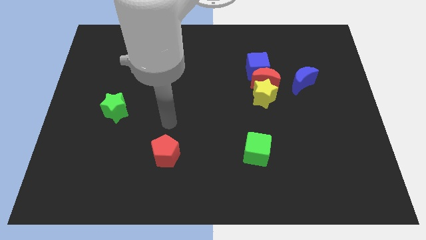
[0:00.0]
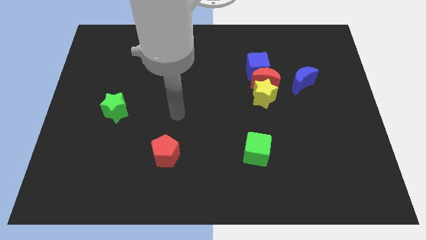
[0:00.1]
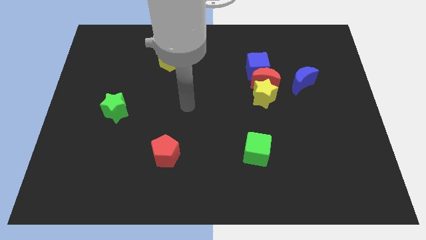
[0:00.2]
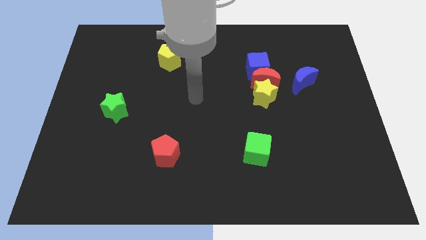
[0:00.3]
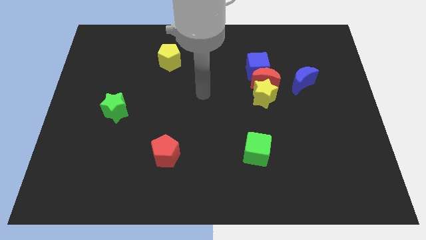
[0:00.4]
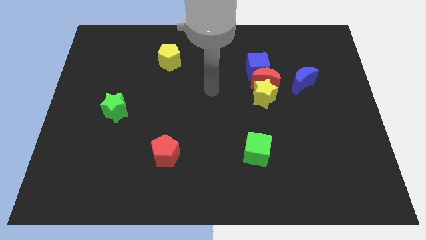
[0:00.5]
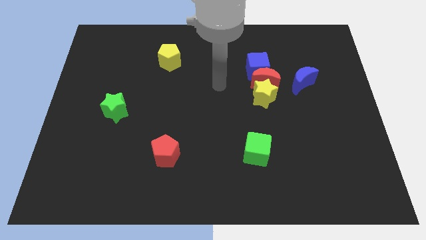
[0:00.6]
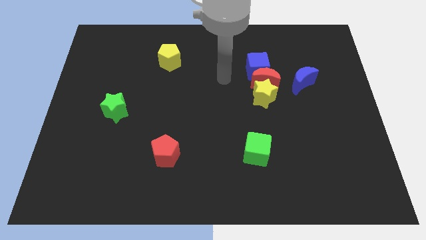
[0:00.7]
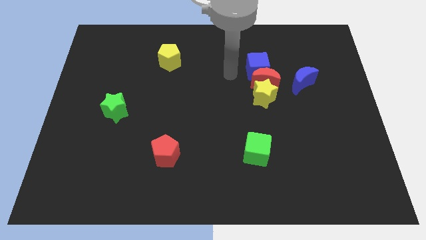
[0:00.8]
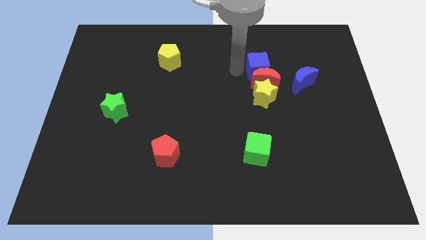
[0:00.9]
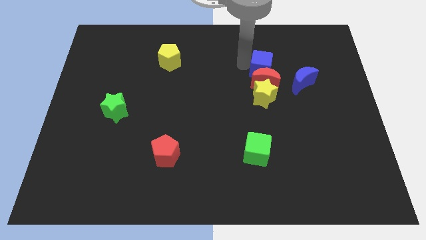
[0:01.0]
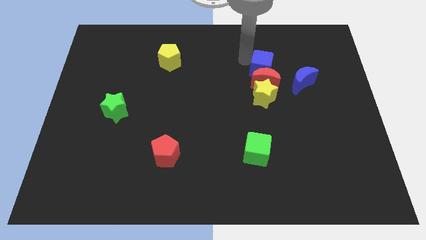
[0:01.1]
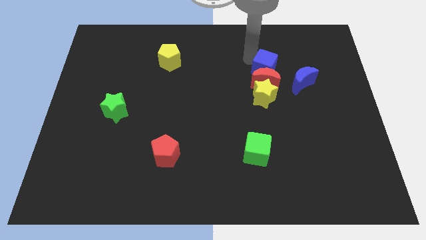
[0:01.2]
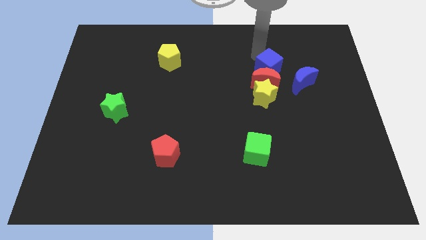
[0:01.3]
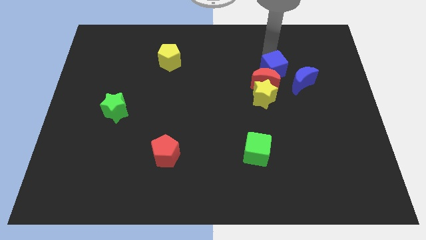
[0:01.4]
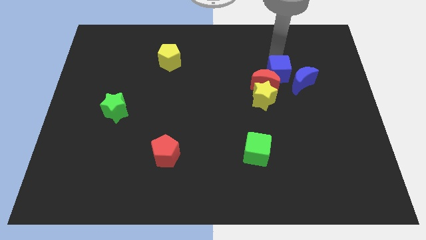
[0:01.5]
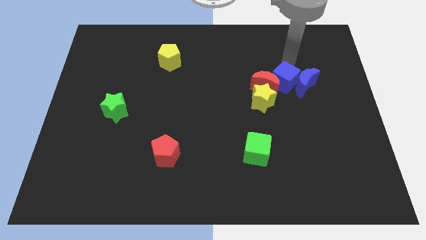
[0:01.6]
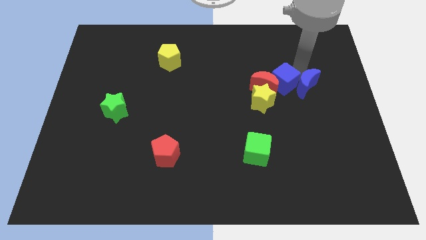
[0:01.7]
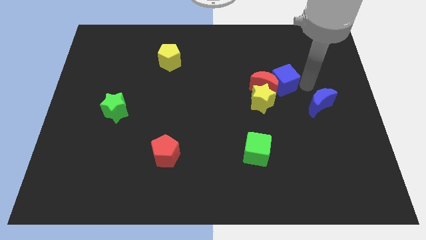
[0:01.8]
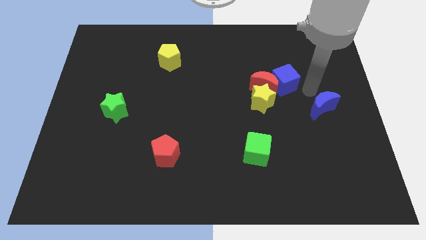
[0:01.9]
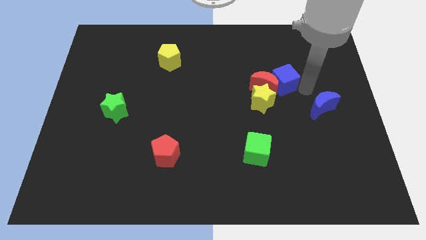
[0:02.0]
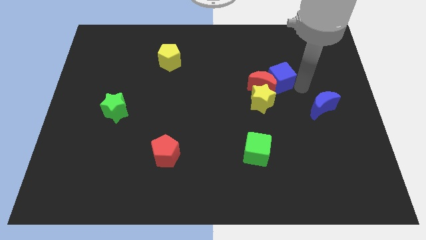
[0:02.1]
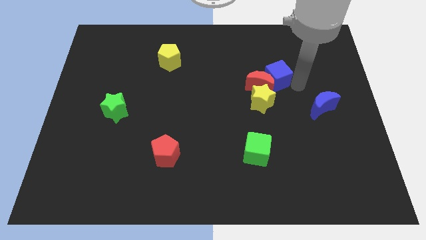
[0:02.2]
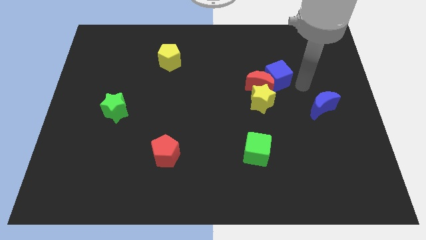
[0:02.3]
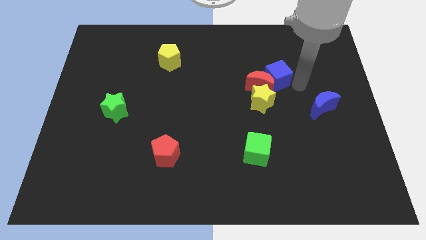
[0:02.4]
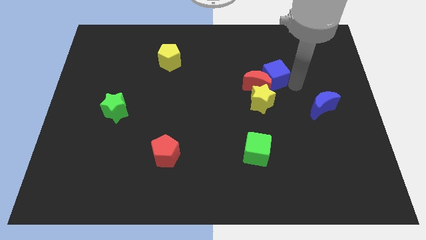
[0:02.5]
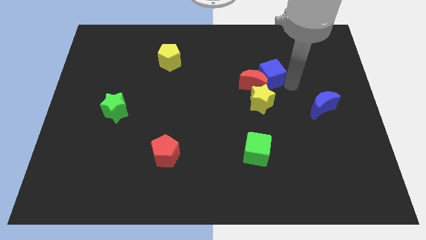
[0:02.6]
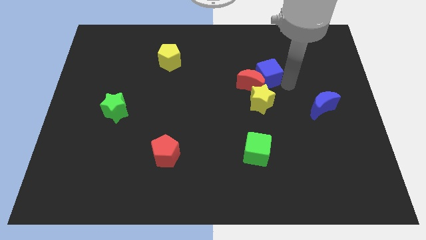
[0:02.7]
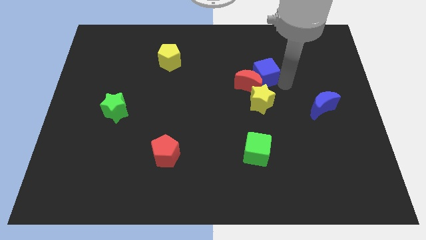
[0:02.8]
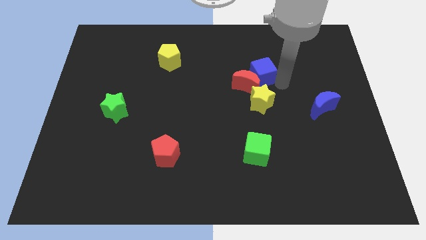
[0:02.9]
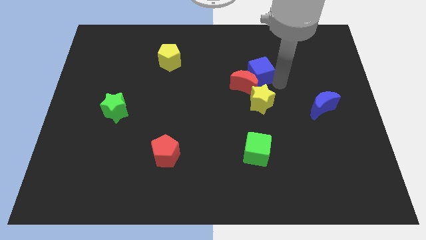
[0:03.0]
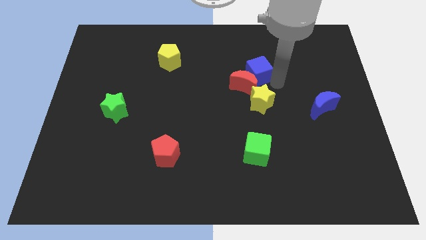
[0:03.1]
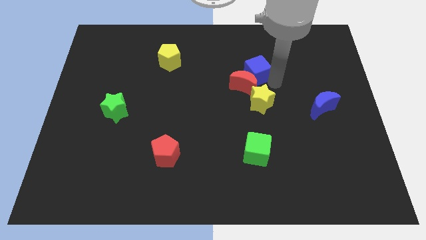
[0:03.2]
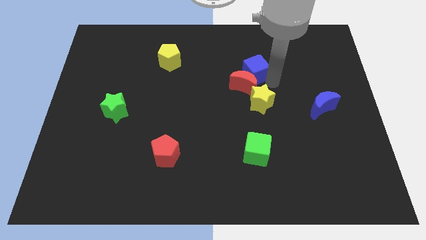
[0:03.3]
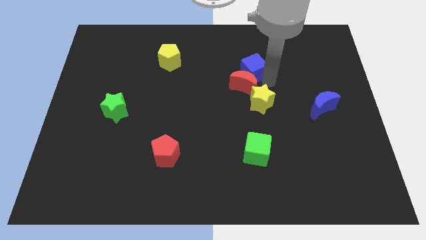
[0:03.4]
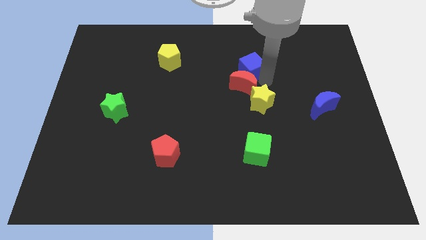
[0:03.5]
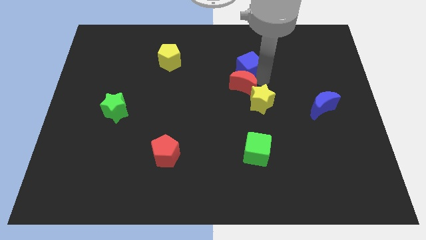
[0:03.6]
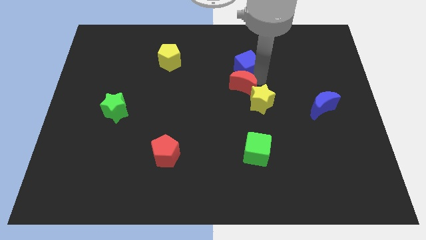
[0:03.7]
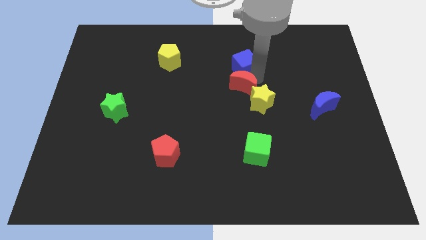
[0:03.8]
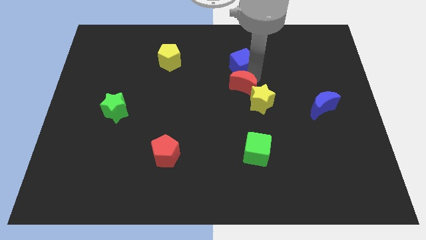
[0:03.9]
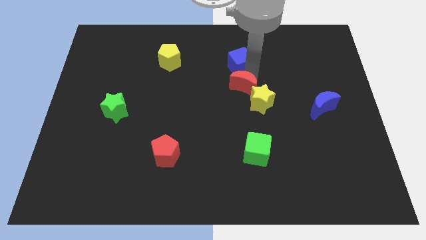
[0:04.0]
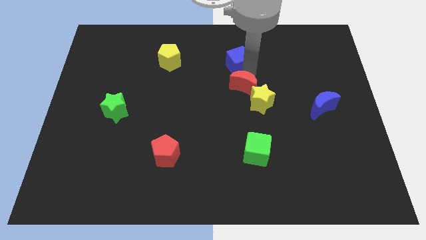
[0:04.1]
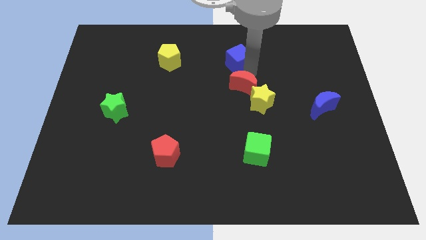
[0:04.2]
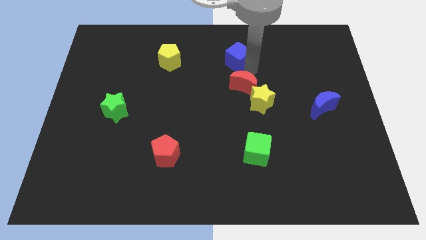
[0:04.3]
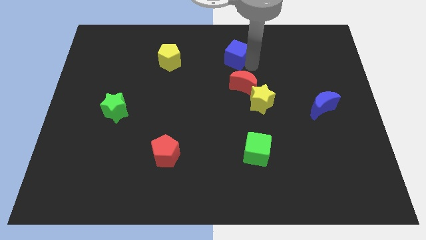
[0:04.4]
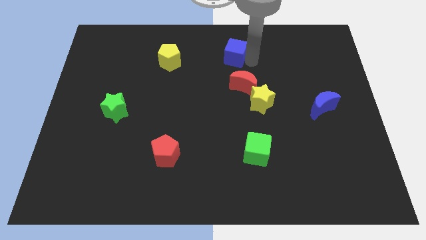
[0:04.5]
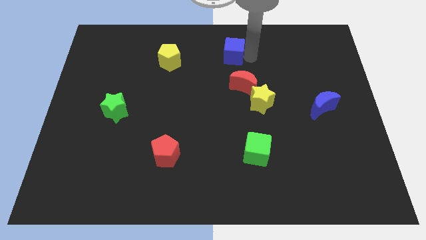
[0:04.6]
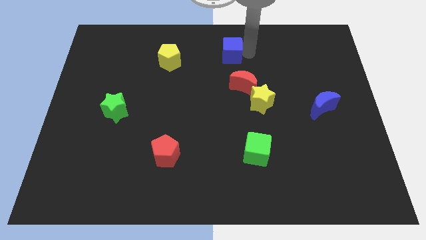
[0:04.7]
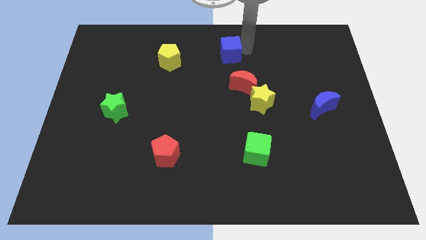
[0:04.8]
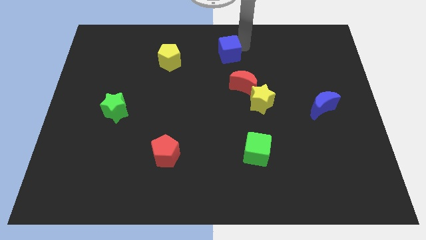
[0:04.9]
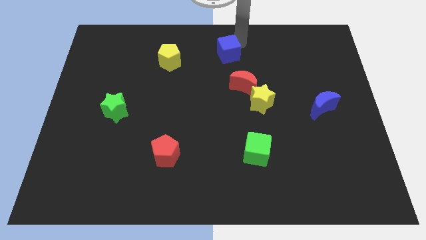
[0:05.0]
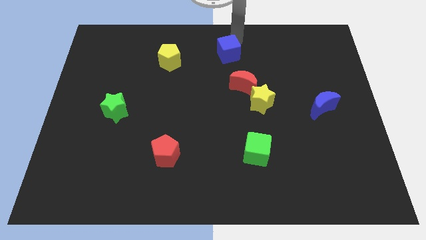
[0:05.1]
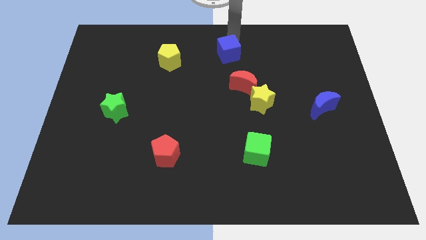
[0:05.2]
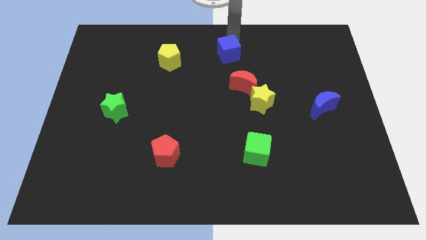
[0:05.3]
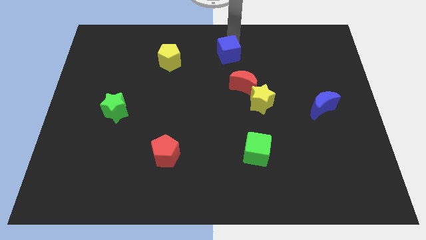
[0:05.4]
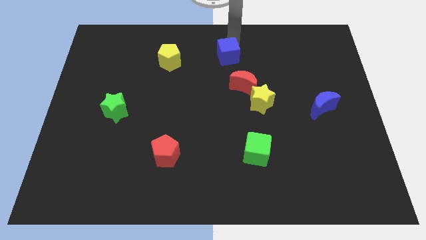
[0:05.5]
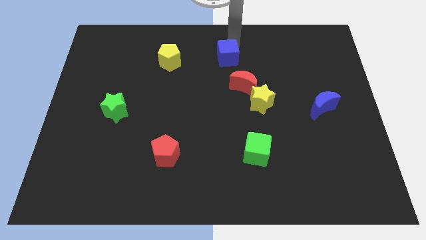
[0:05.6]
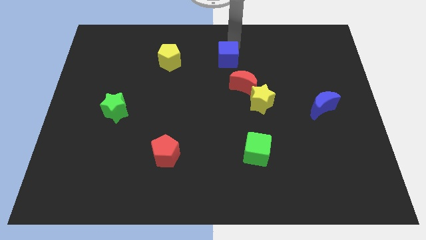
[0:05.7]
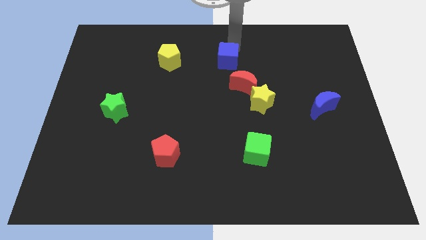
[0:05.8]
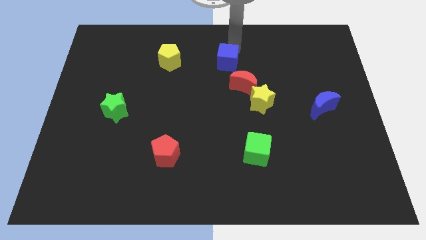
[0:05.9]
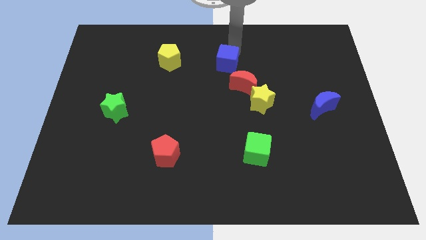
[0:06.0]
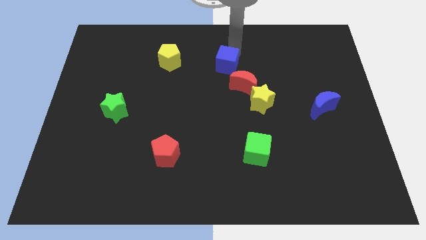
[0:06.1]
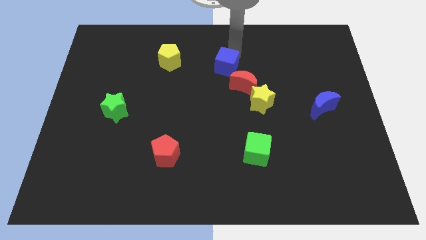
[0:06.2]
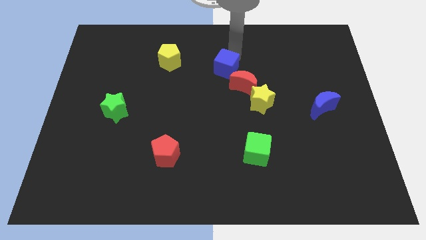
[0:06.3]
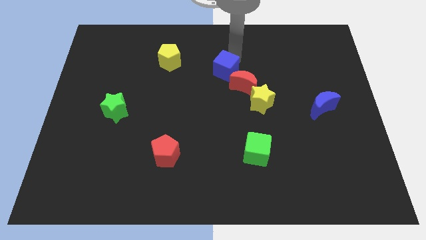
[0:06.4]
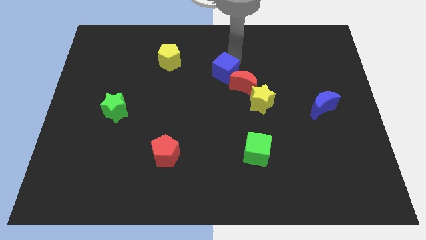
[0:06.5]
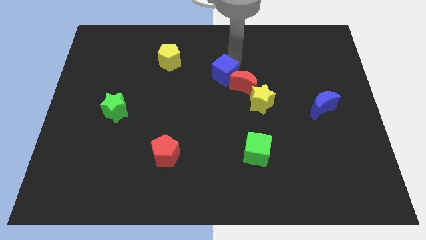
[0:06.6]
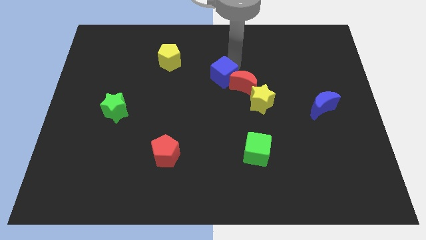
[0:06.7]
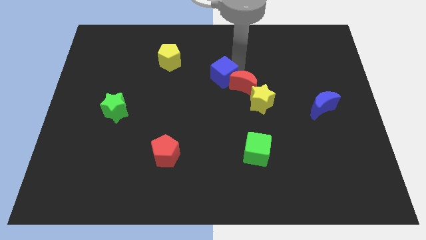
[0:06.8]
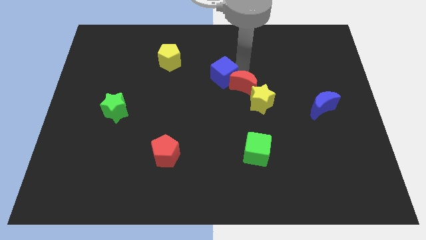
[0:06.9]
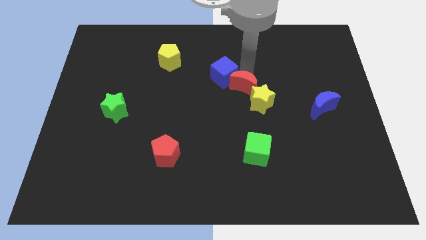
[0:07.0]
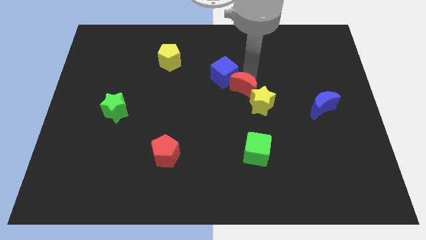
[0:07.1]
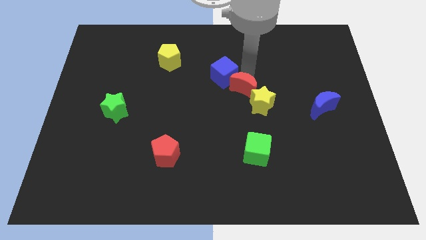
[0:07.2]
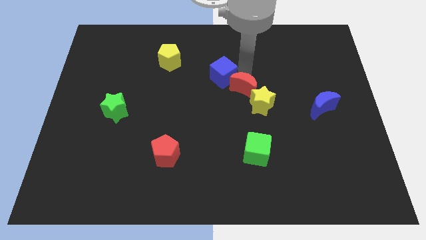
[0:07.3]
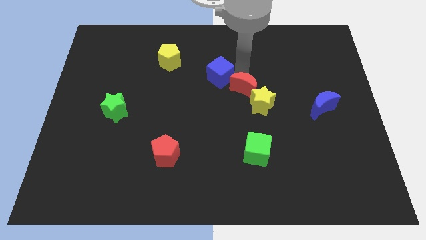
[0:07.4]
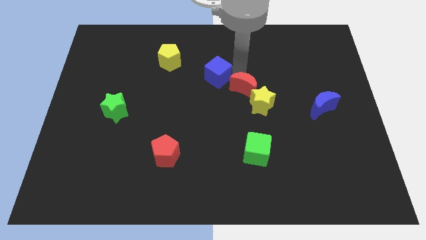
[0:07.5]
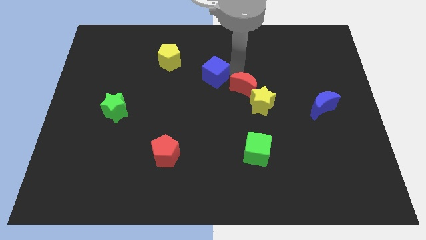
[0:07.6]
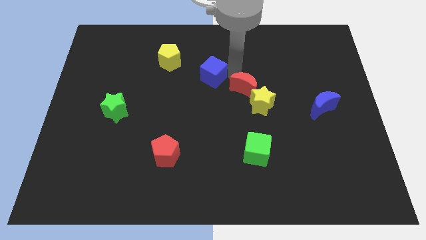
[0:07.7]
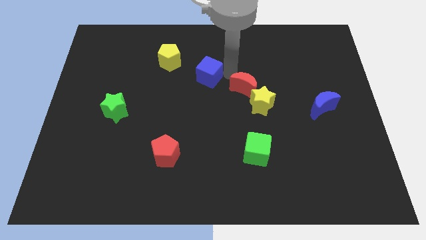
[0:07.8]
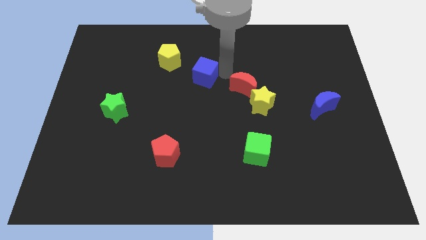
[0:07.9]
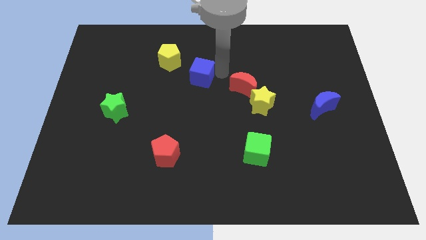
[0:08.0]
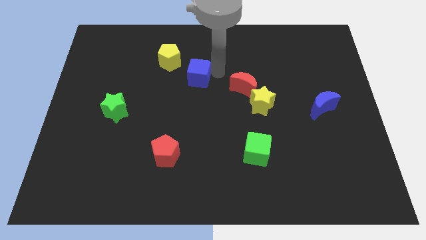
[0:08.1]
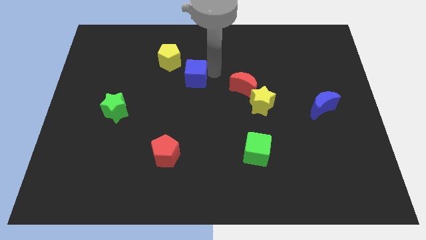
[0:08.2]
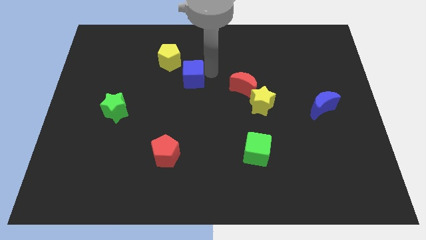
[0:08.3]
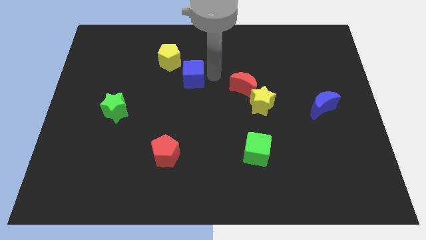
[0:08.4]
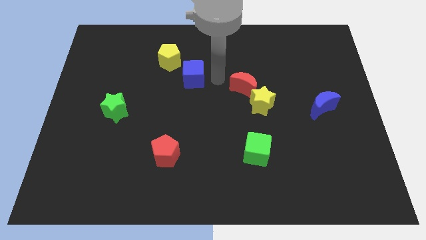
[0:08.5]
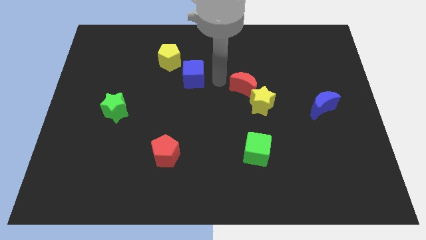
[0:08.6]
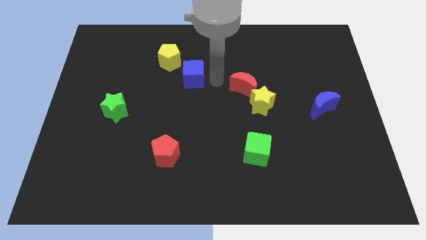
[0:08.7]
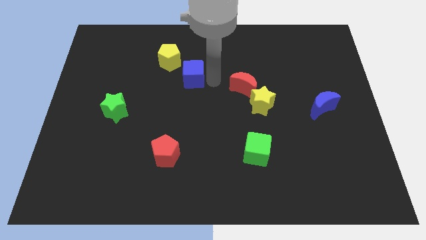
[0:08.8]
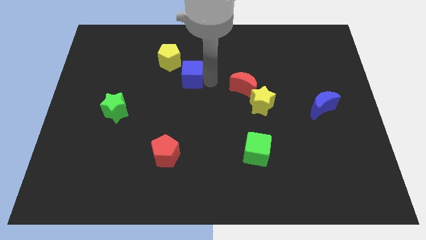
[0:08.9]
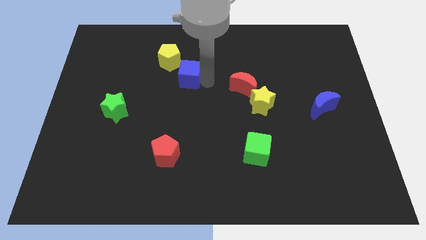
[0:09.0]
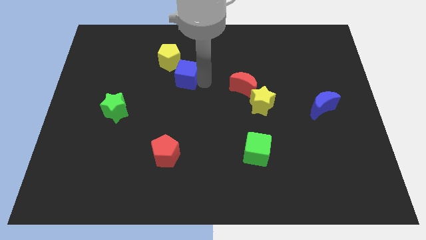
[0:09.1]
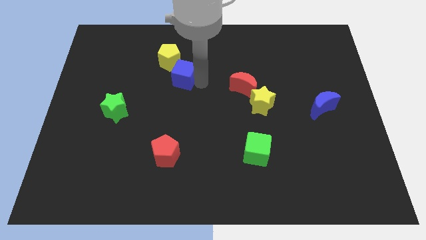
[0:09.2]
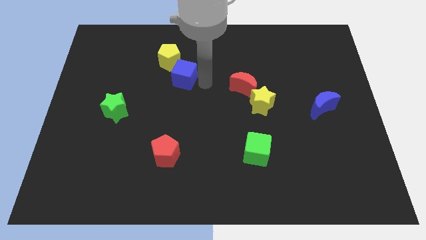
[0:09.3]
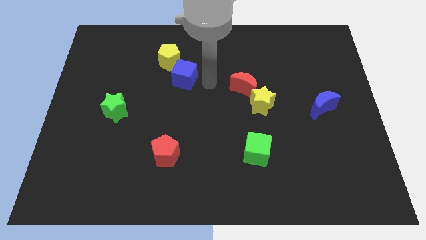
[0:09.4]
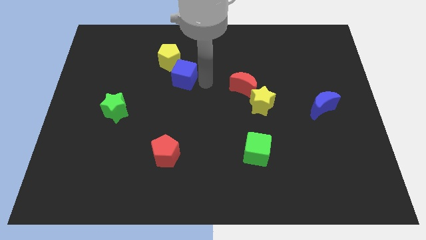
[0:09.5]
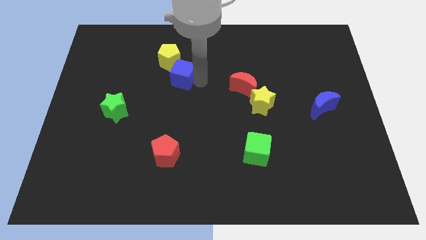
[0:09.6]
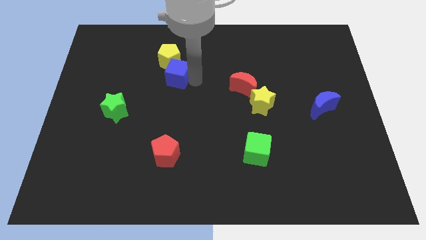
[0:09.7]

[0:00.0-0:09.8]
move the blue cube left
